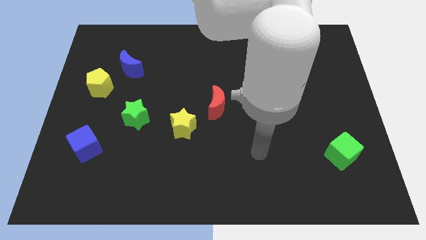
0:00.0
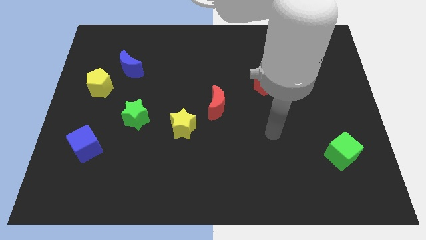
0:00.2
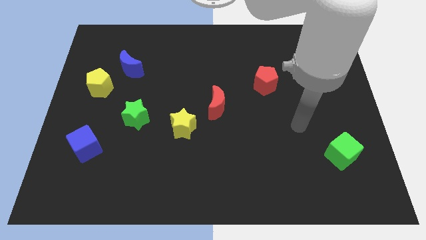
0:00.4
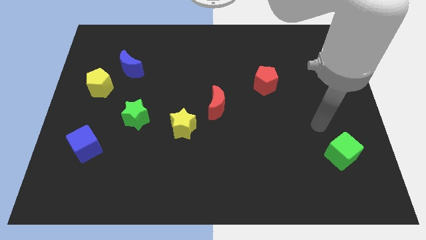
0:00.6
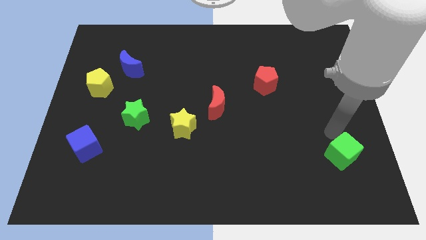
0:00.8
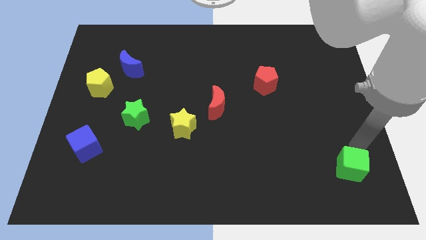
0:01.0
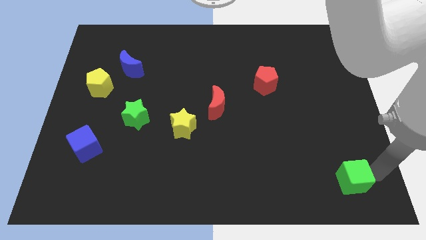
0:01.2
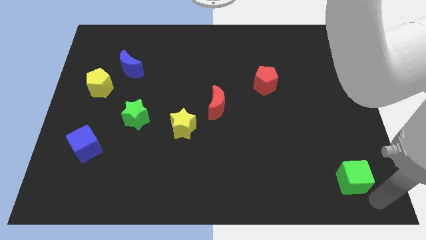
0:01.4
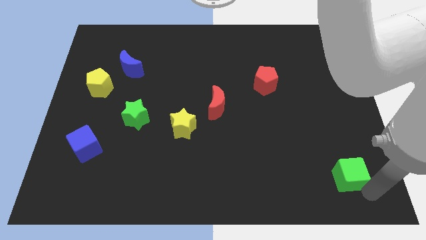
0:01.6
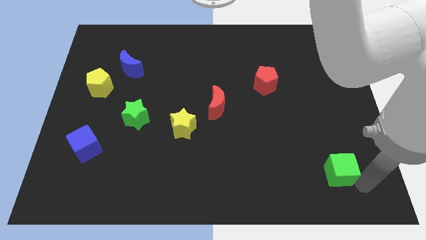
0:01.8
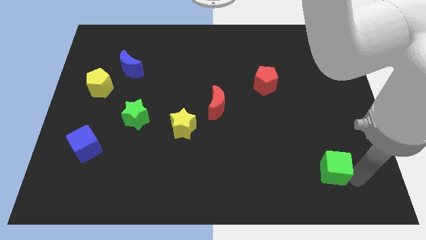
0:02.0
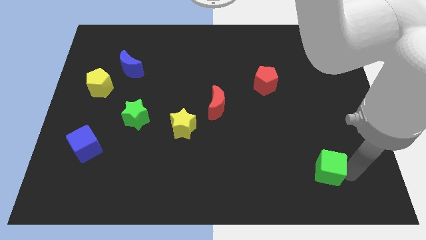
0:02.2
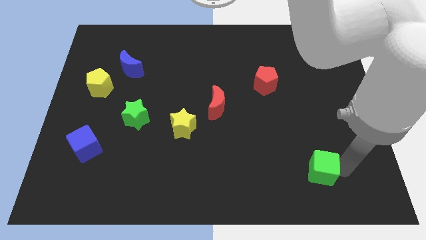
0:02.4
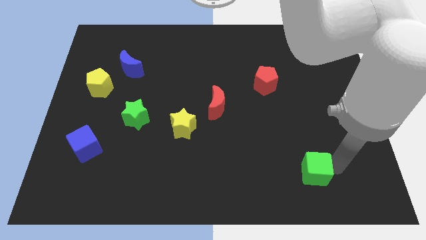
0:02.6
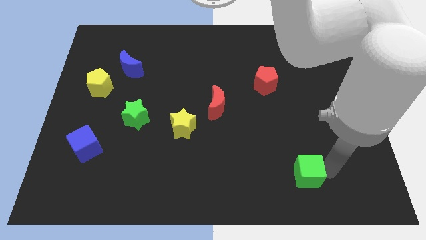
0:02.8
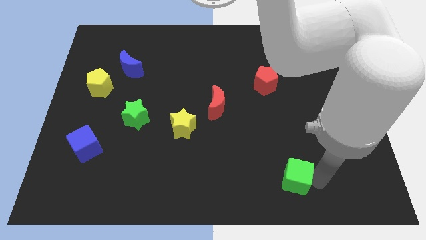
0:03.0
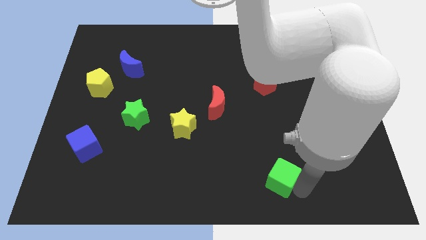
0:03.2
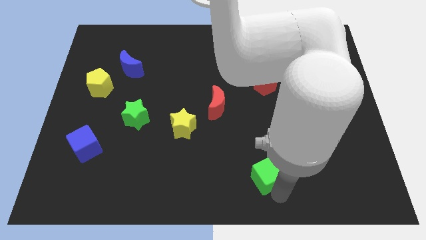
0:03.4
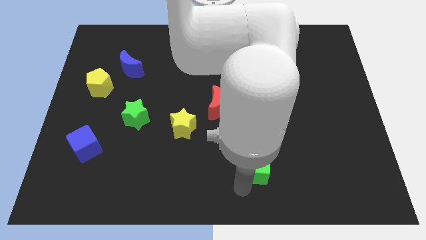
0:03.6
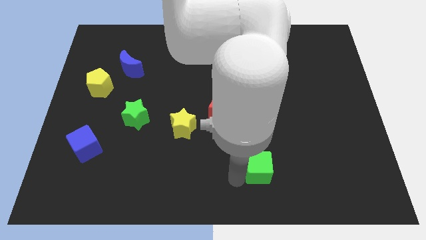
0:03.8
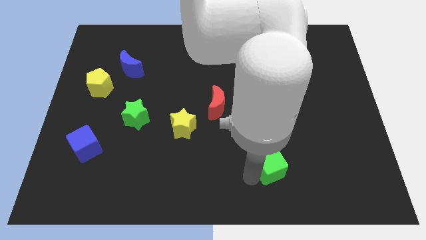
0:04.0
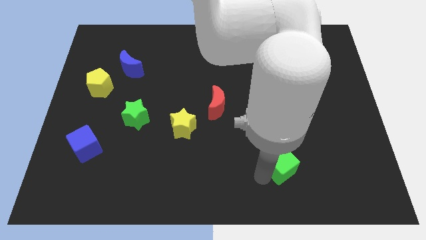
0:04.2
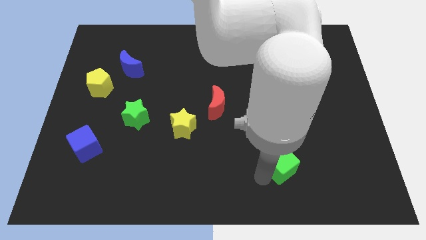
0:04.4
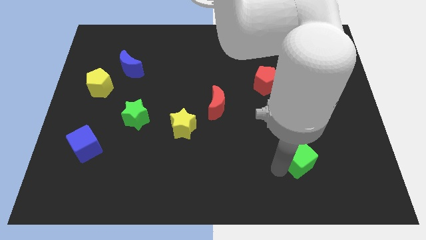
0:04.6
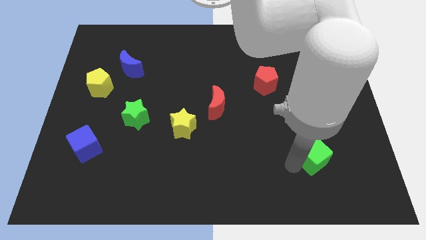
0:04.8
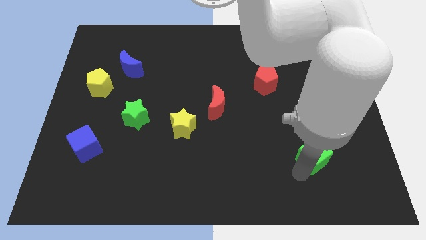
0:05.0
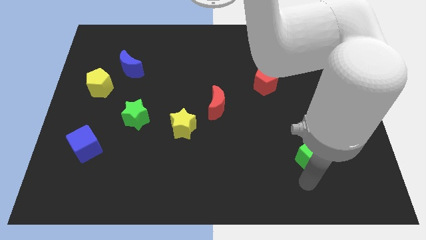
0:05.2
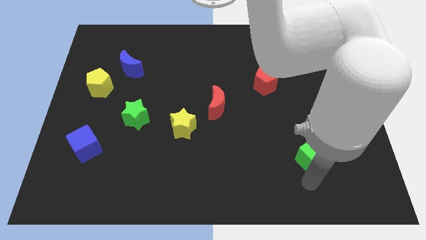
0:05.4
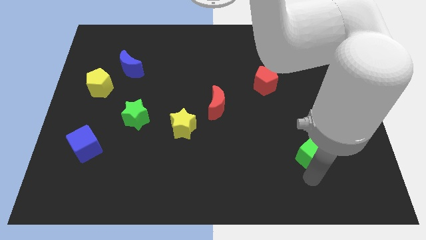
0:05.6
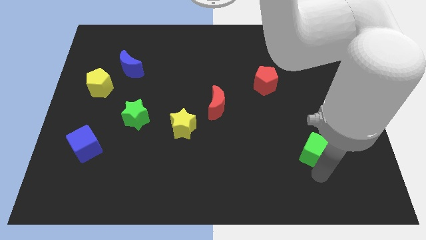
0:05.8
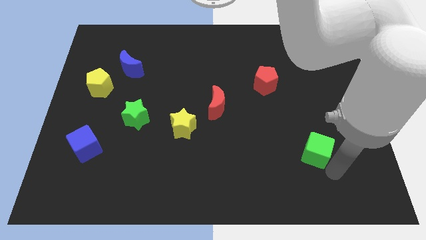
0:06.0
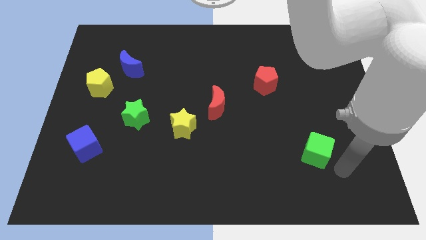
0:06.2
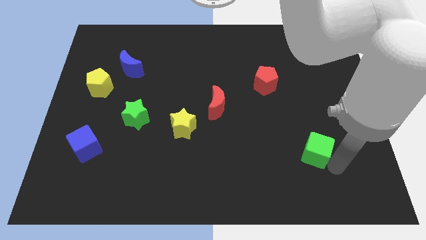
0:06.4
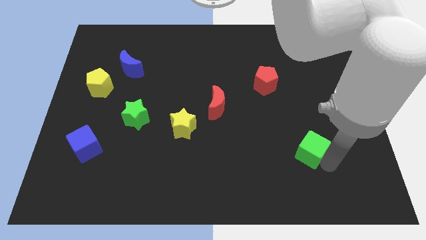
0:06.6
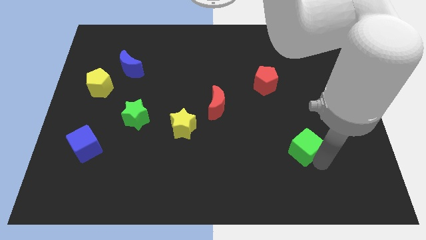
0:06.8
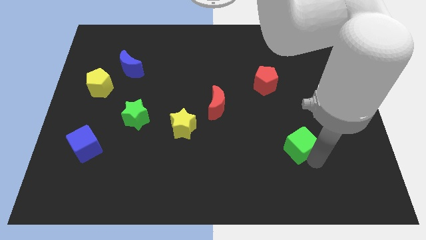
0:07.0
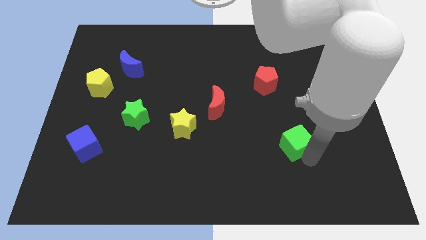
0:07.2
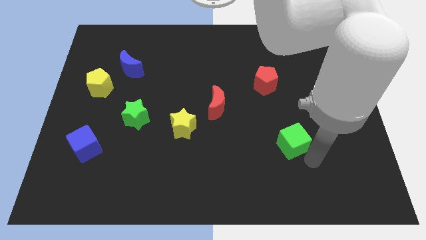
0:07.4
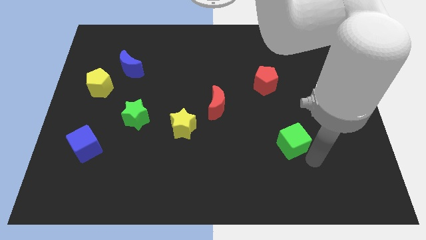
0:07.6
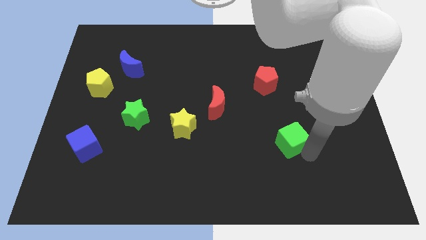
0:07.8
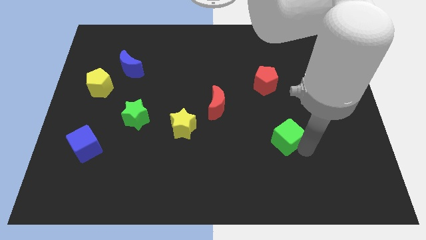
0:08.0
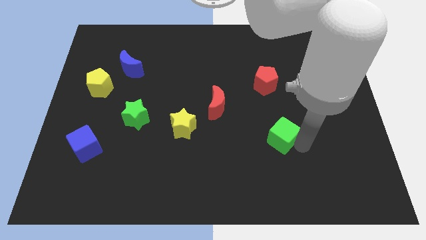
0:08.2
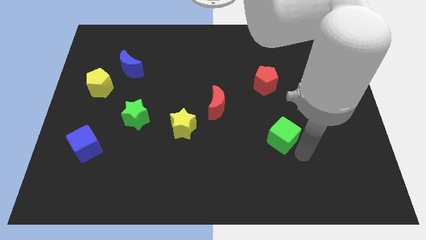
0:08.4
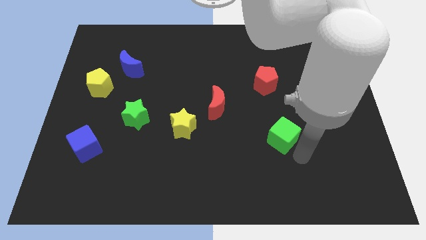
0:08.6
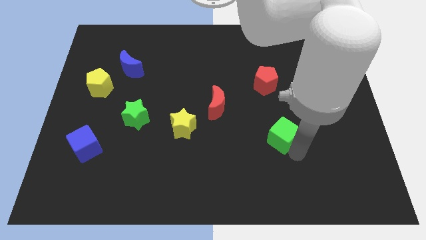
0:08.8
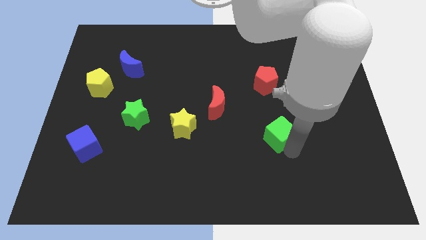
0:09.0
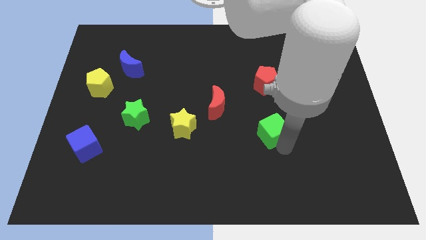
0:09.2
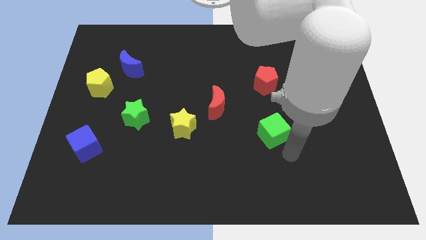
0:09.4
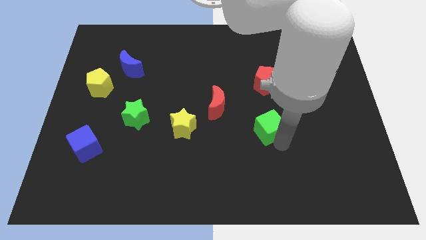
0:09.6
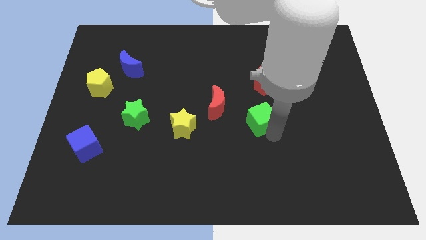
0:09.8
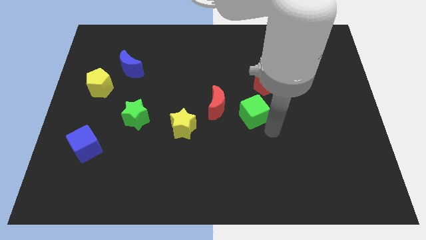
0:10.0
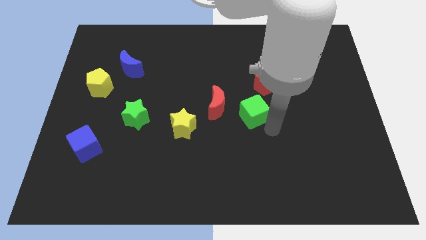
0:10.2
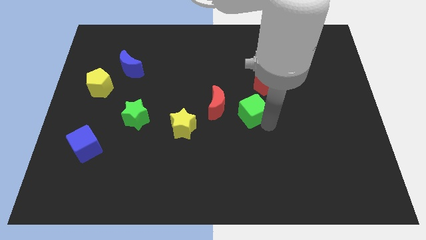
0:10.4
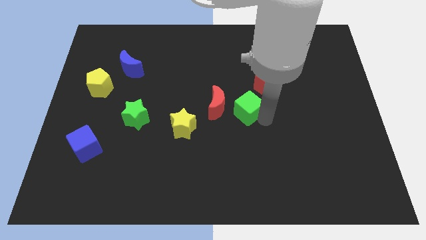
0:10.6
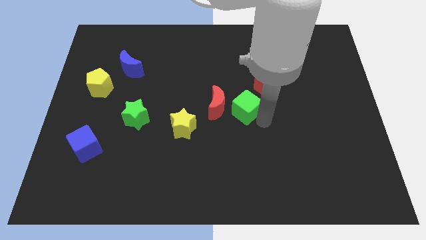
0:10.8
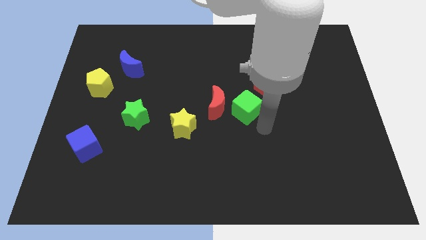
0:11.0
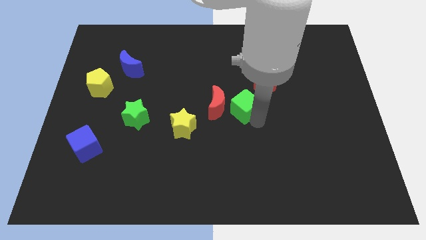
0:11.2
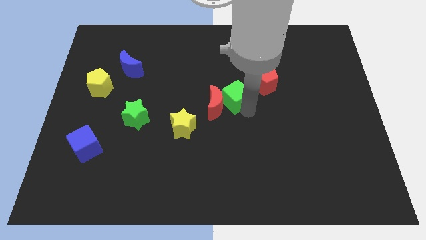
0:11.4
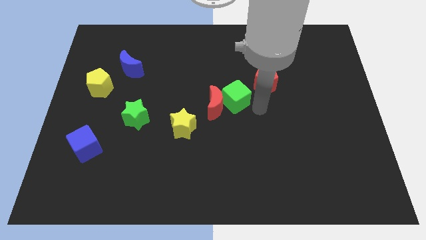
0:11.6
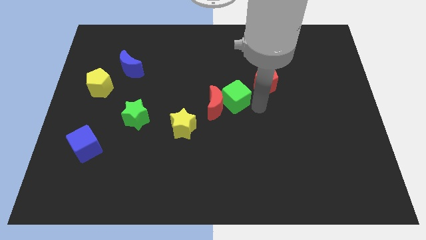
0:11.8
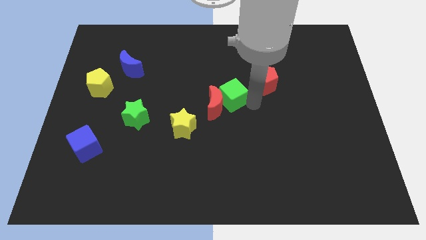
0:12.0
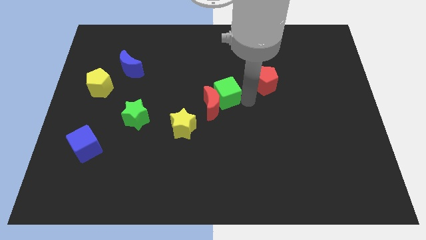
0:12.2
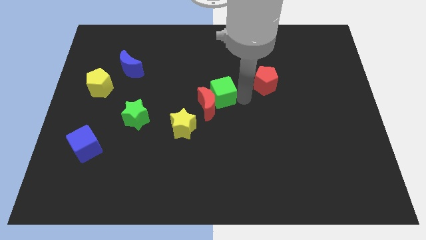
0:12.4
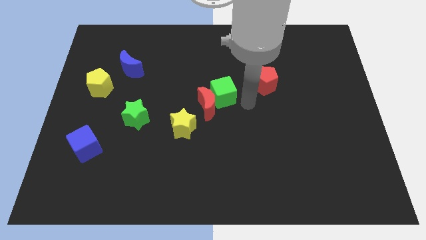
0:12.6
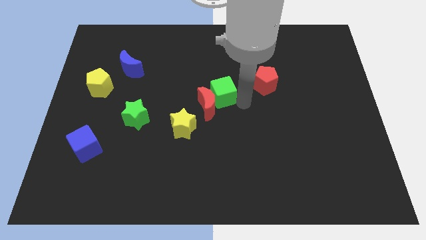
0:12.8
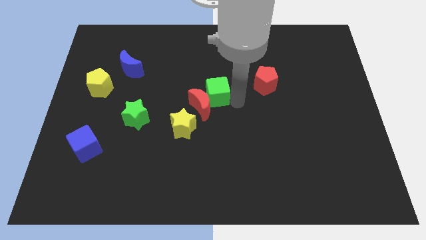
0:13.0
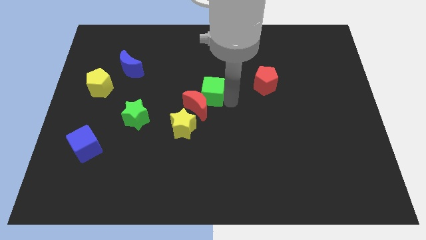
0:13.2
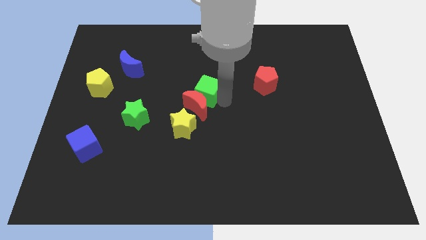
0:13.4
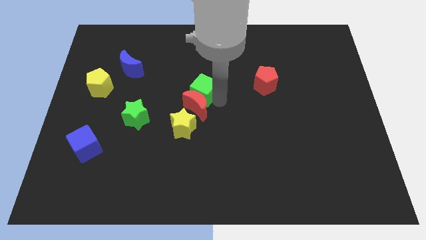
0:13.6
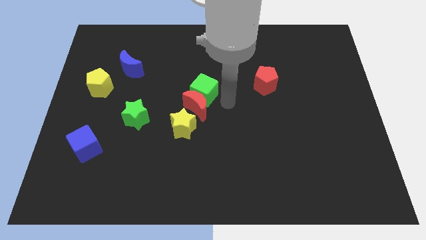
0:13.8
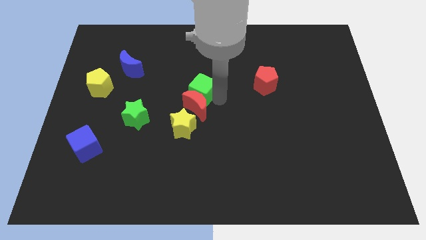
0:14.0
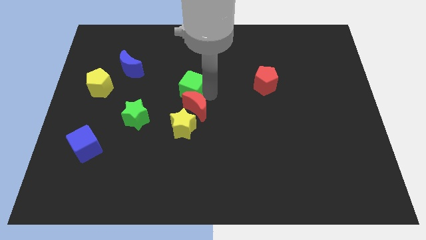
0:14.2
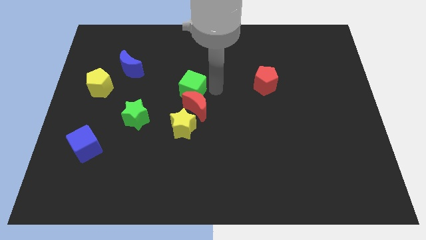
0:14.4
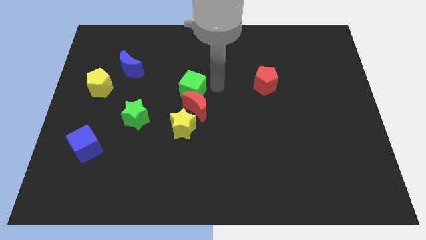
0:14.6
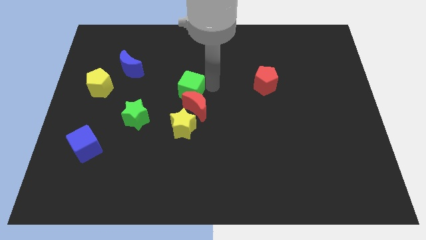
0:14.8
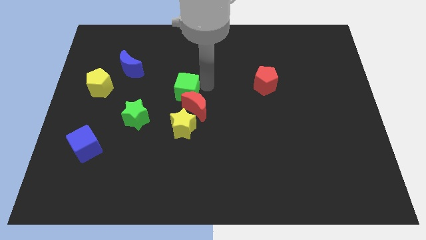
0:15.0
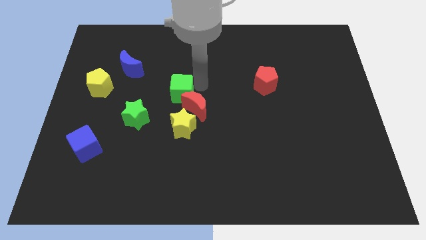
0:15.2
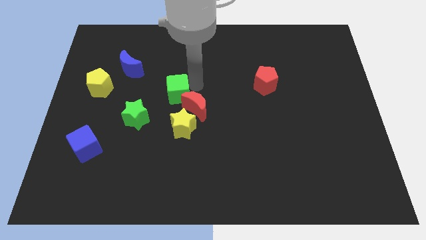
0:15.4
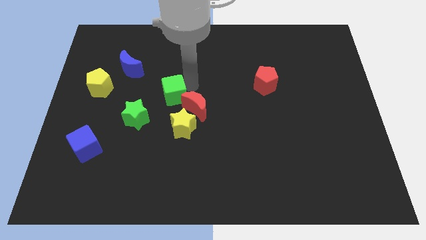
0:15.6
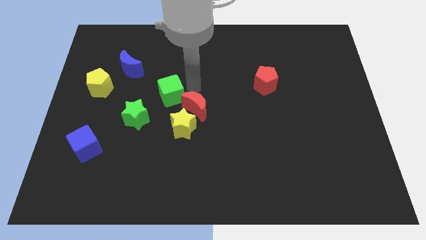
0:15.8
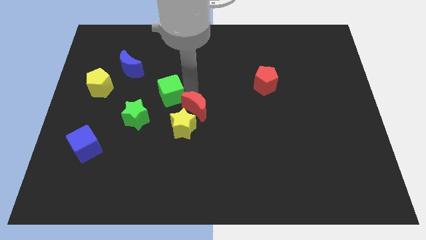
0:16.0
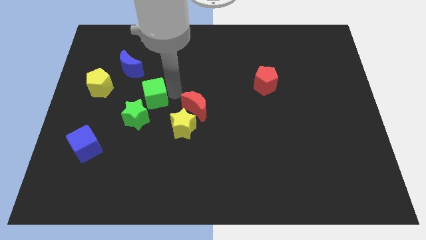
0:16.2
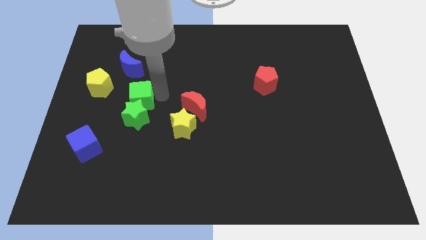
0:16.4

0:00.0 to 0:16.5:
put the green cube to the bottom of the blue moon
